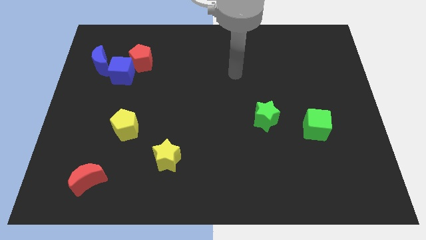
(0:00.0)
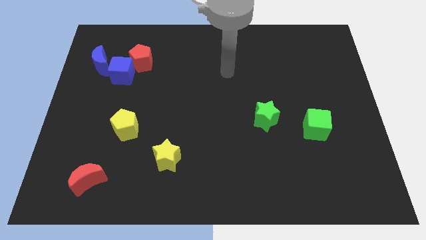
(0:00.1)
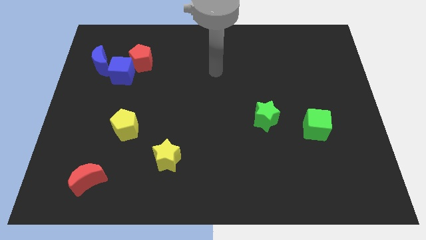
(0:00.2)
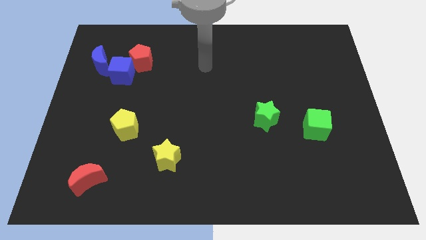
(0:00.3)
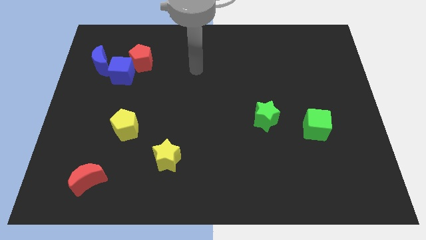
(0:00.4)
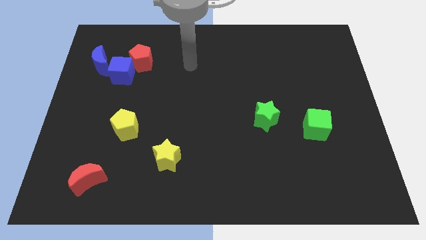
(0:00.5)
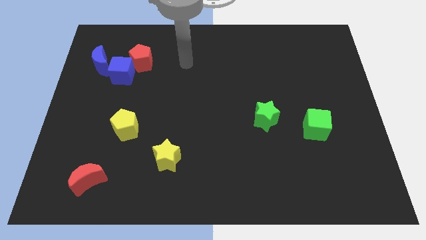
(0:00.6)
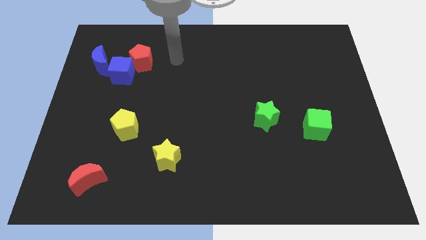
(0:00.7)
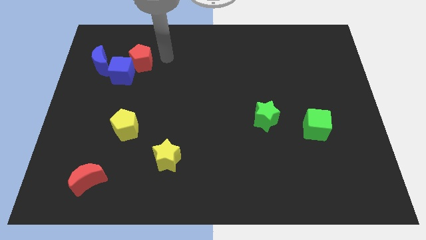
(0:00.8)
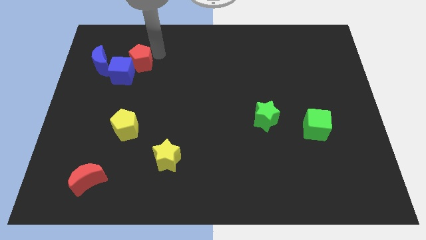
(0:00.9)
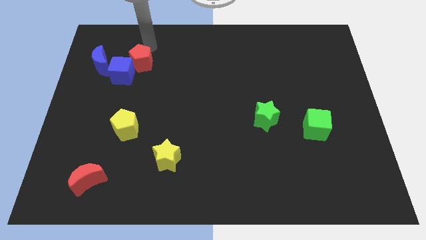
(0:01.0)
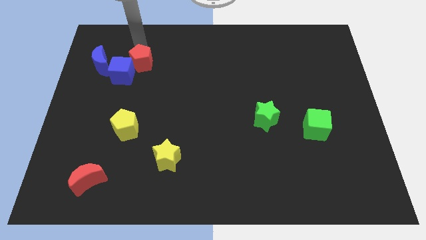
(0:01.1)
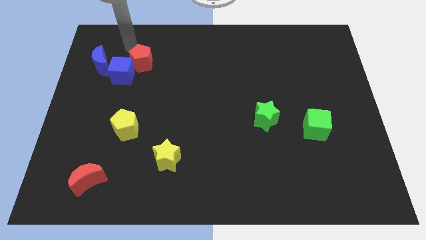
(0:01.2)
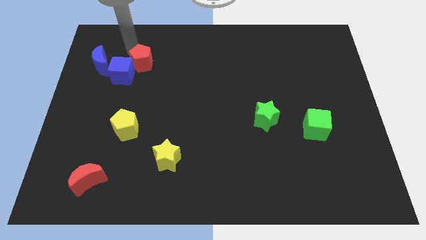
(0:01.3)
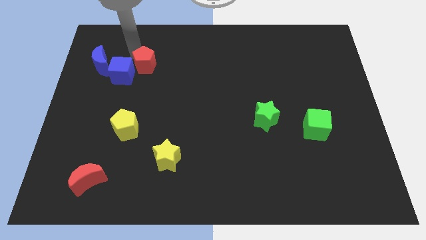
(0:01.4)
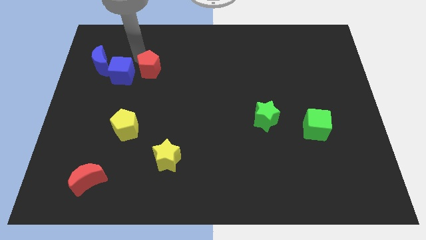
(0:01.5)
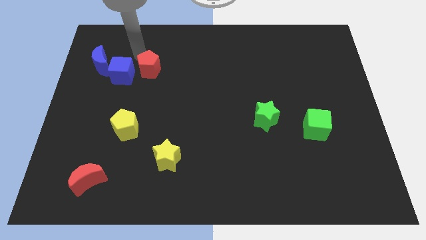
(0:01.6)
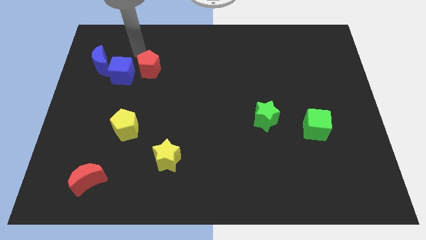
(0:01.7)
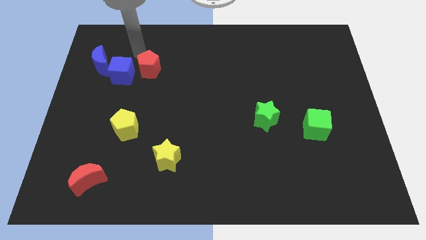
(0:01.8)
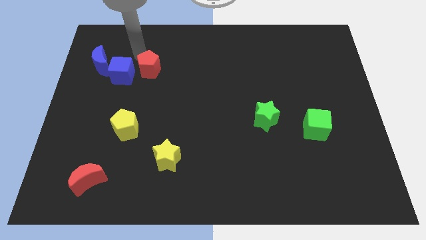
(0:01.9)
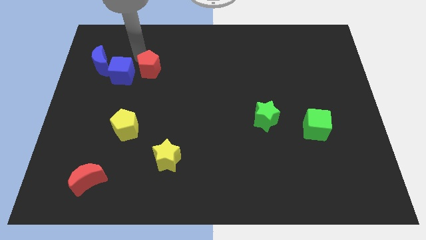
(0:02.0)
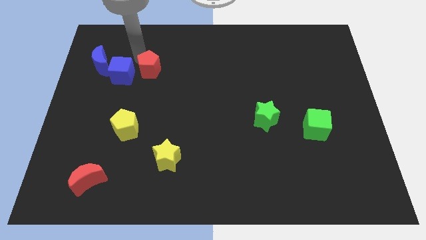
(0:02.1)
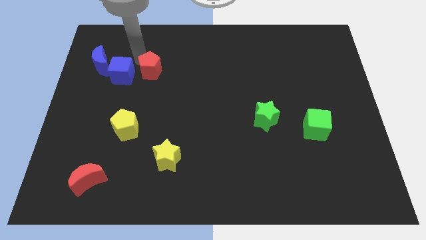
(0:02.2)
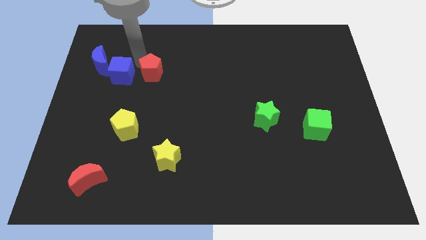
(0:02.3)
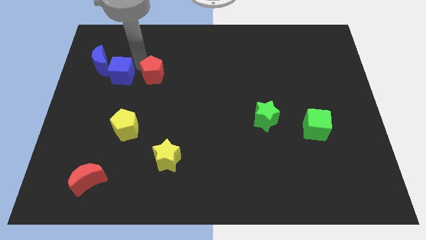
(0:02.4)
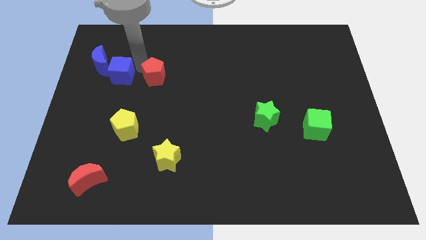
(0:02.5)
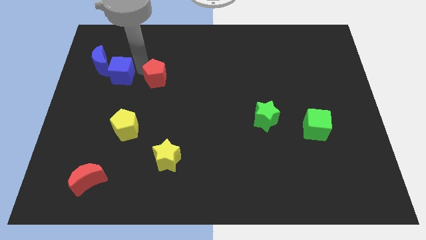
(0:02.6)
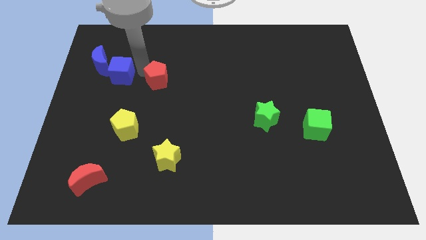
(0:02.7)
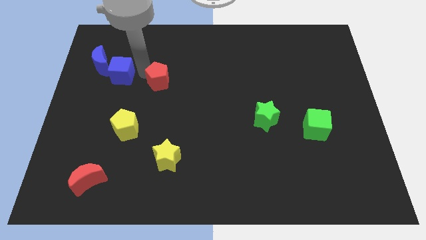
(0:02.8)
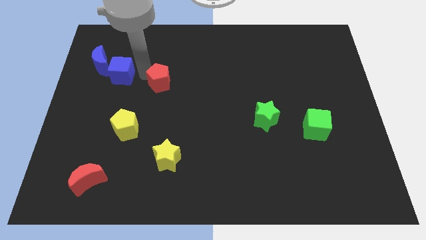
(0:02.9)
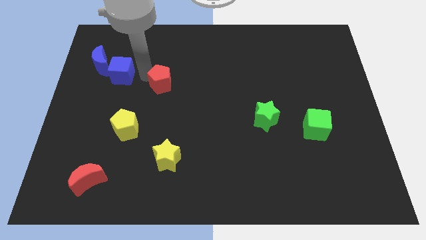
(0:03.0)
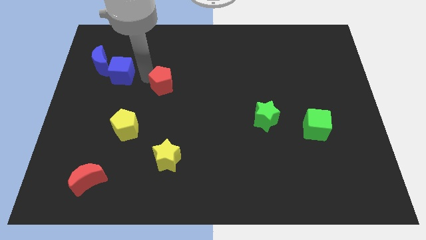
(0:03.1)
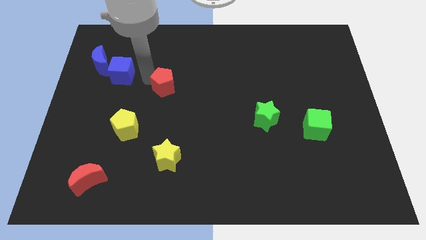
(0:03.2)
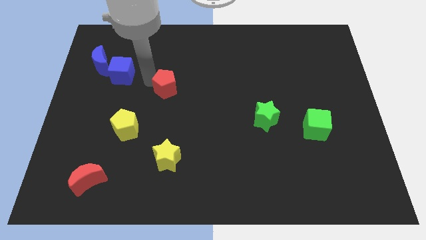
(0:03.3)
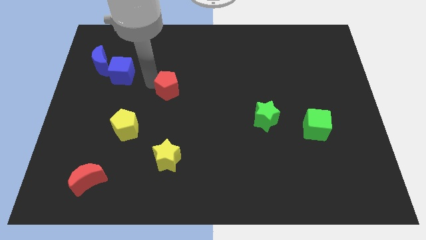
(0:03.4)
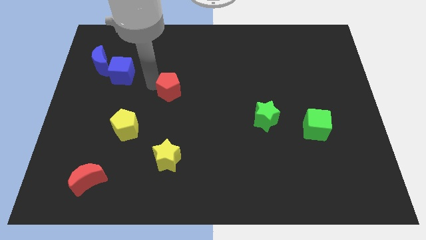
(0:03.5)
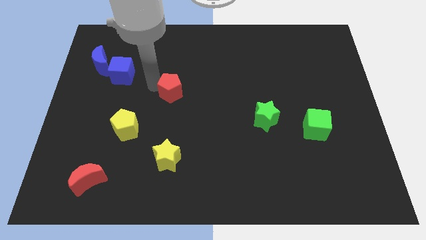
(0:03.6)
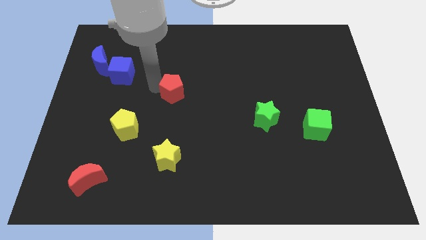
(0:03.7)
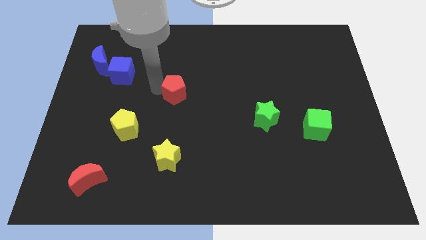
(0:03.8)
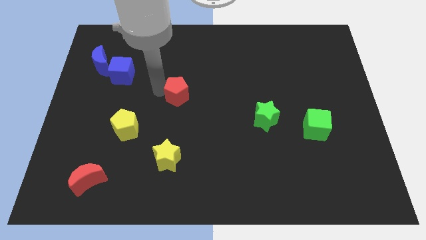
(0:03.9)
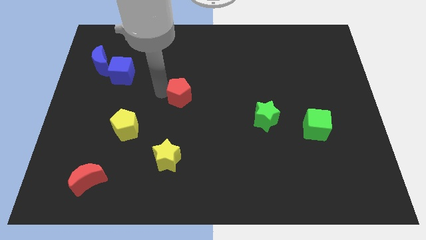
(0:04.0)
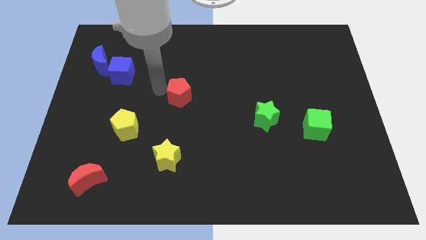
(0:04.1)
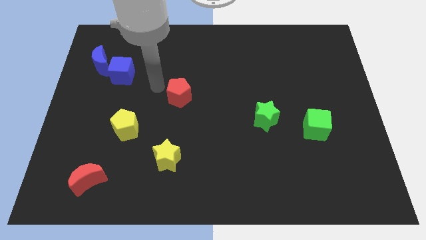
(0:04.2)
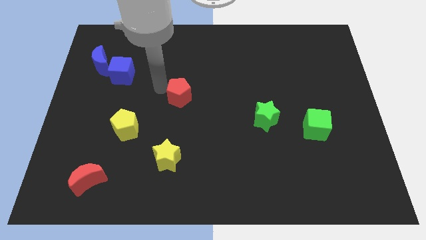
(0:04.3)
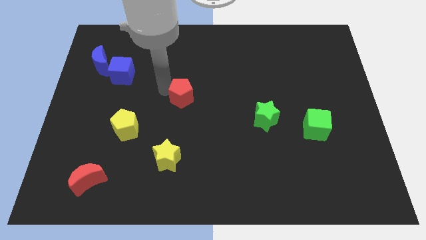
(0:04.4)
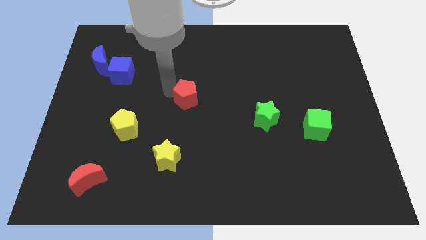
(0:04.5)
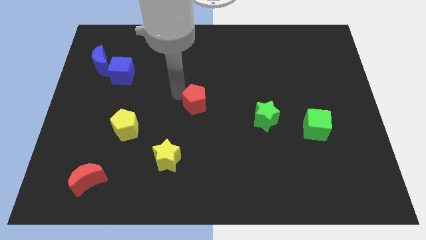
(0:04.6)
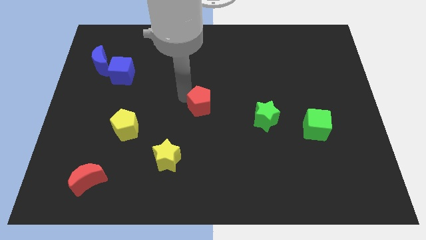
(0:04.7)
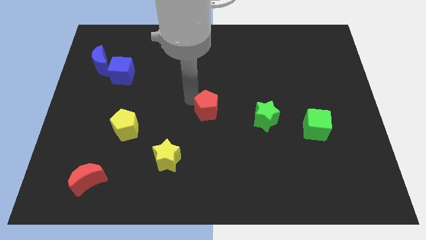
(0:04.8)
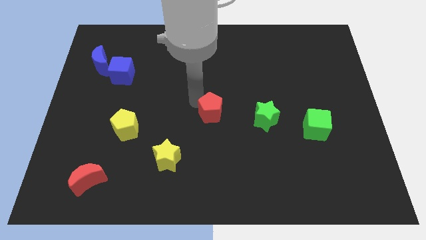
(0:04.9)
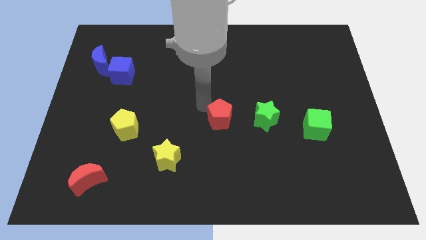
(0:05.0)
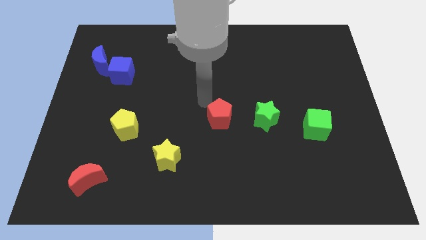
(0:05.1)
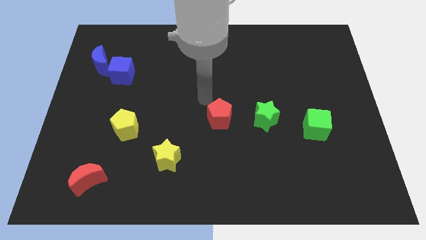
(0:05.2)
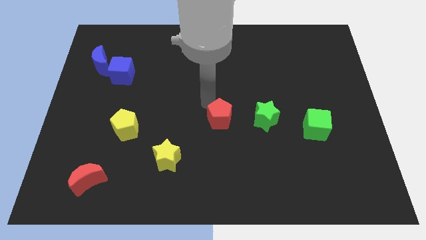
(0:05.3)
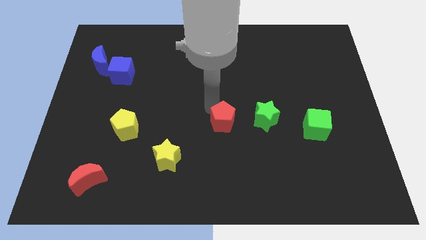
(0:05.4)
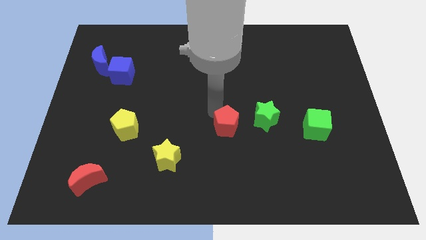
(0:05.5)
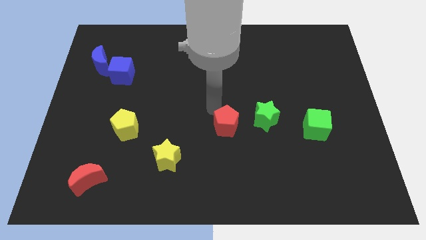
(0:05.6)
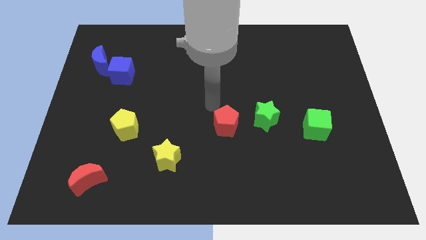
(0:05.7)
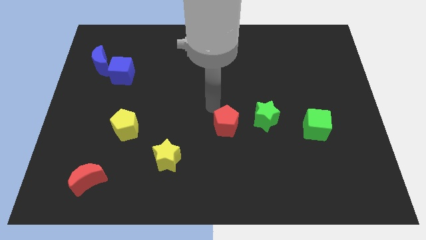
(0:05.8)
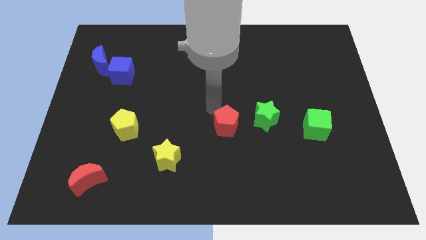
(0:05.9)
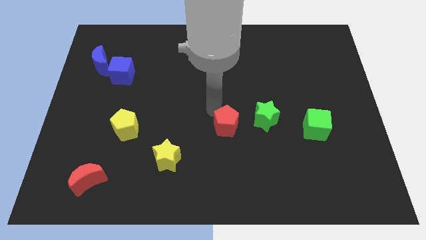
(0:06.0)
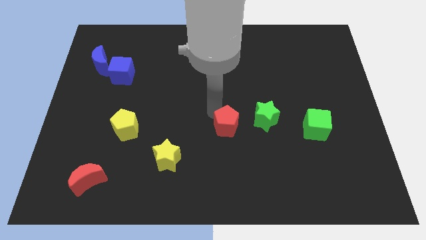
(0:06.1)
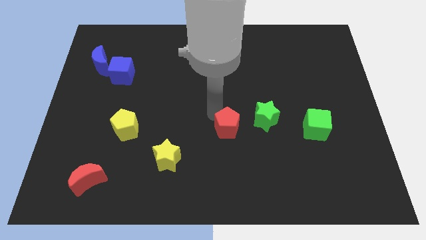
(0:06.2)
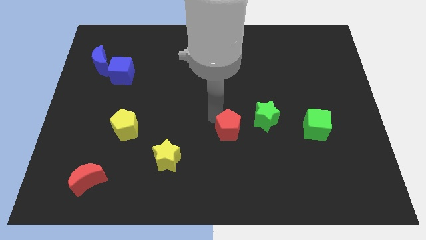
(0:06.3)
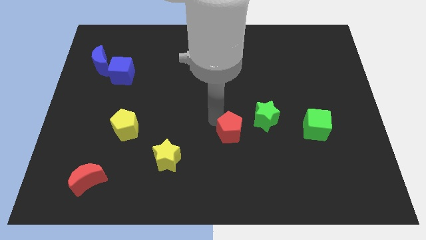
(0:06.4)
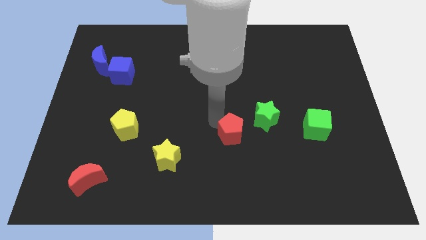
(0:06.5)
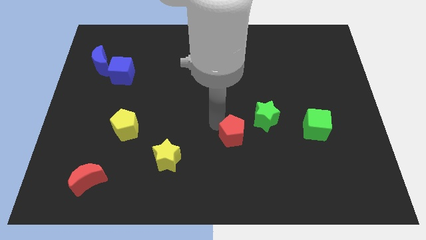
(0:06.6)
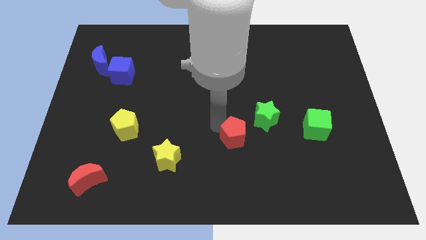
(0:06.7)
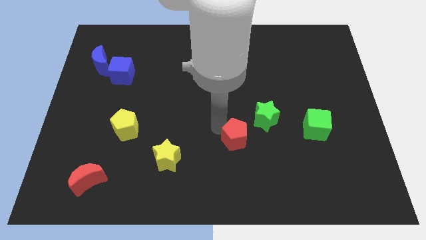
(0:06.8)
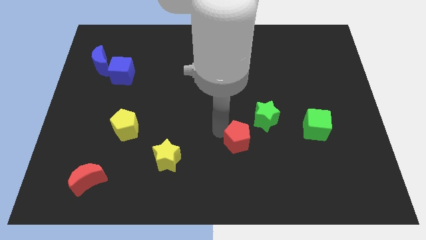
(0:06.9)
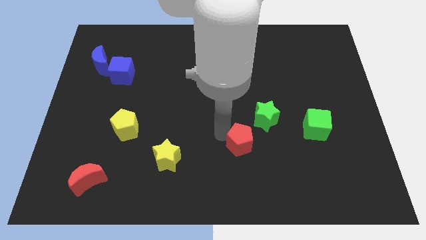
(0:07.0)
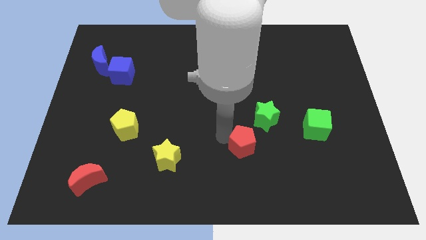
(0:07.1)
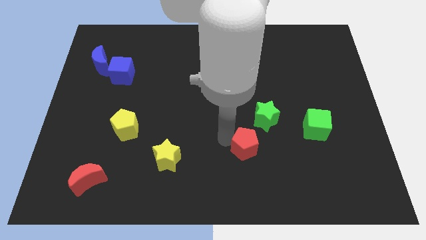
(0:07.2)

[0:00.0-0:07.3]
push the red pentagon to the bottom of the green star
